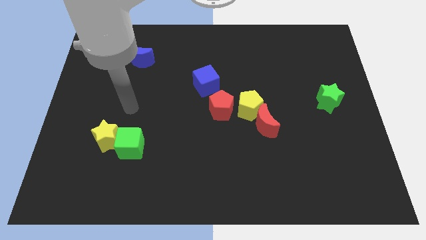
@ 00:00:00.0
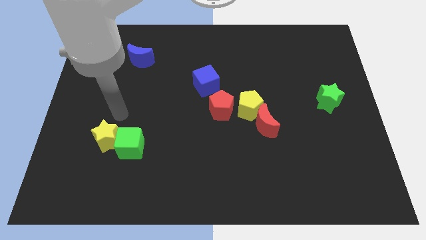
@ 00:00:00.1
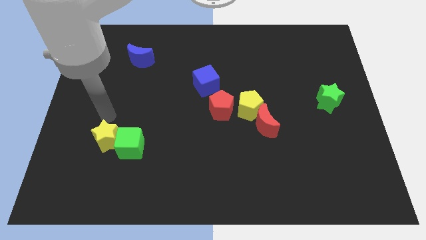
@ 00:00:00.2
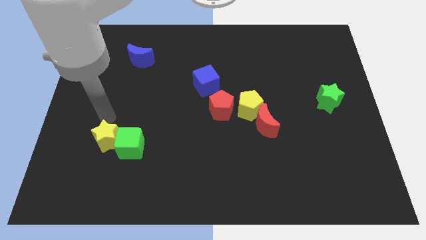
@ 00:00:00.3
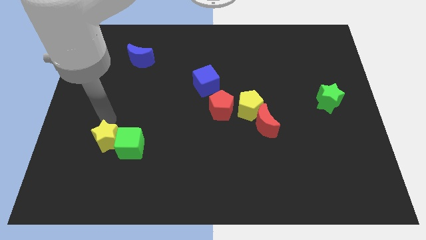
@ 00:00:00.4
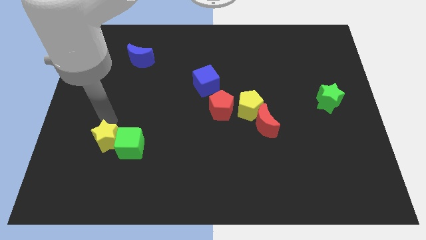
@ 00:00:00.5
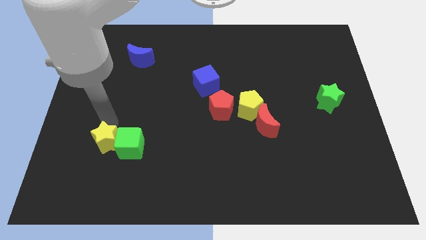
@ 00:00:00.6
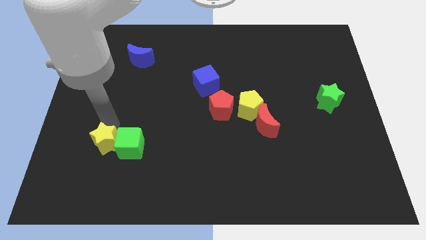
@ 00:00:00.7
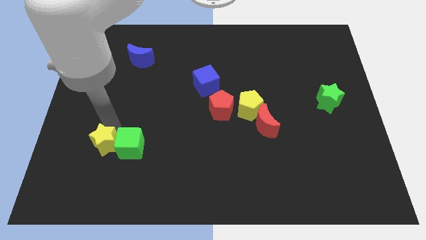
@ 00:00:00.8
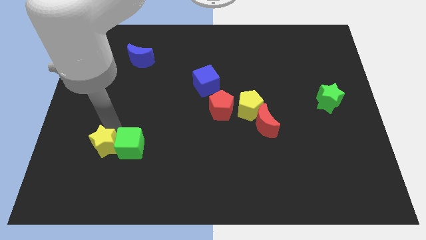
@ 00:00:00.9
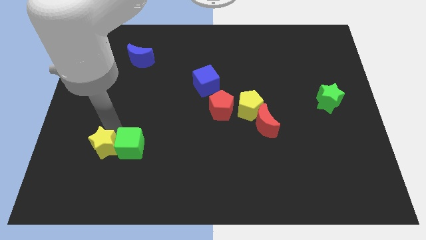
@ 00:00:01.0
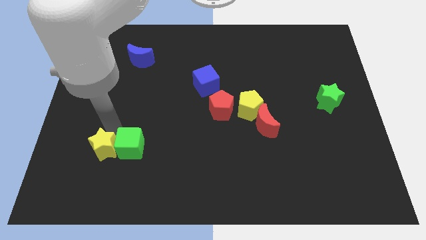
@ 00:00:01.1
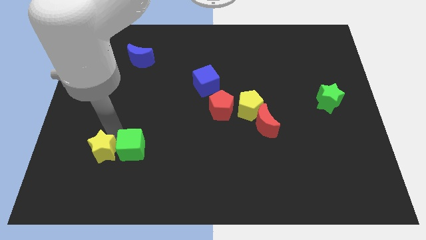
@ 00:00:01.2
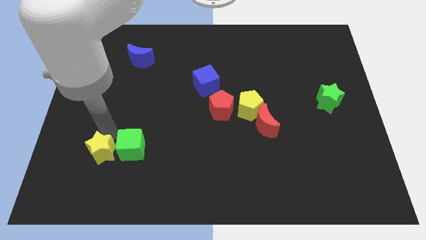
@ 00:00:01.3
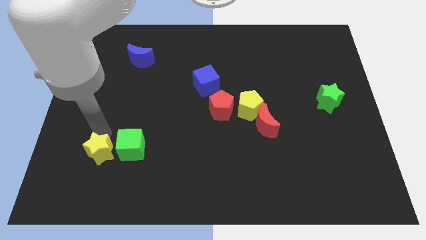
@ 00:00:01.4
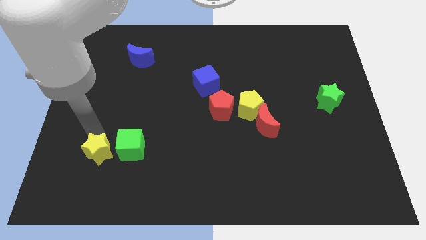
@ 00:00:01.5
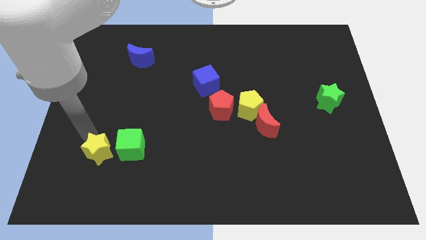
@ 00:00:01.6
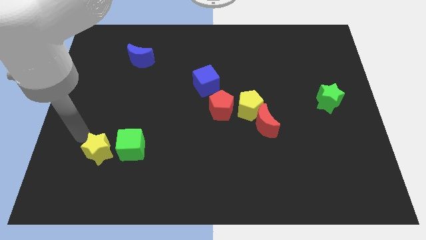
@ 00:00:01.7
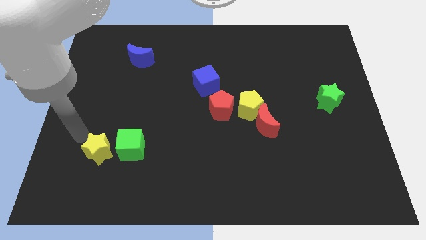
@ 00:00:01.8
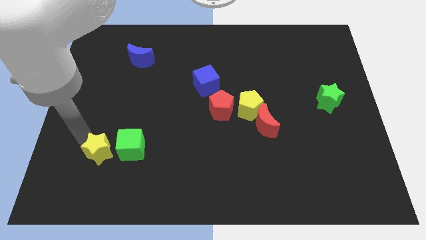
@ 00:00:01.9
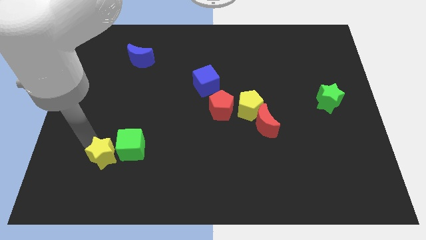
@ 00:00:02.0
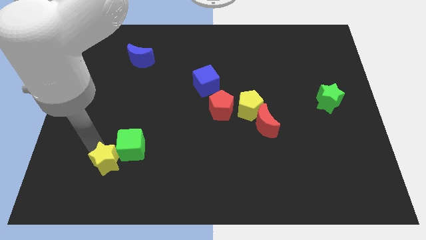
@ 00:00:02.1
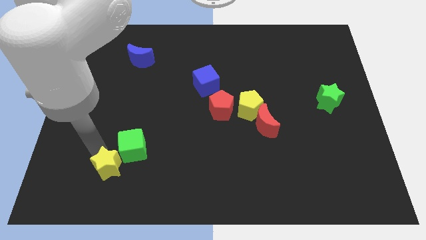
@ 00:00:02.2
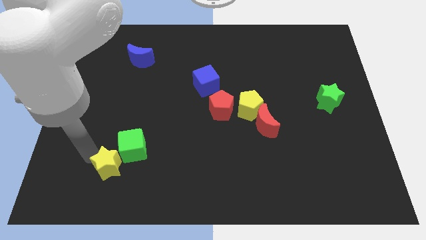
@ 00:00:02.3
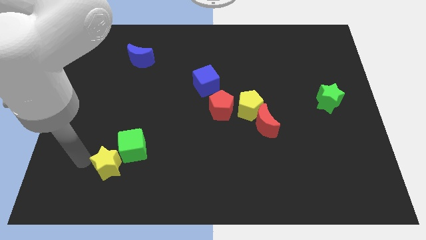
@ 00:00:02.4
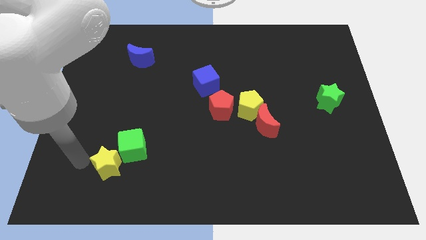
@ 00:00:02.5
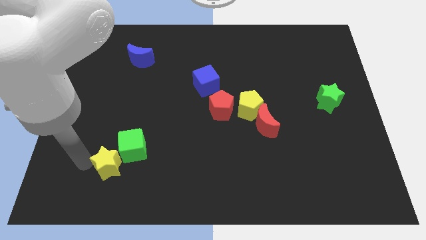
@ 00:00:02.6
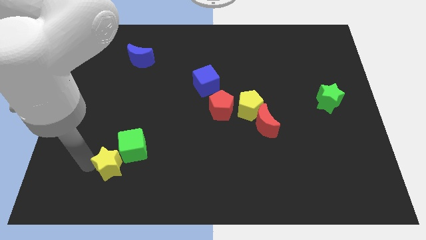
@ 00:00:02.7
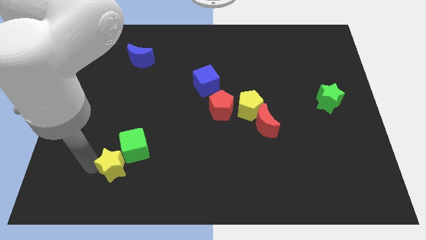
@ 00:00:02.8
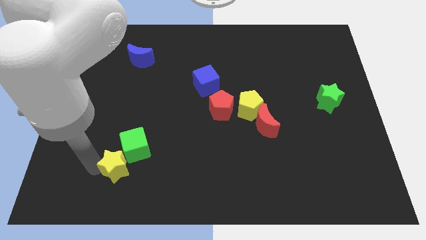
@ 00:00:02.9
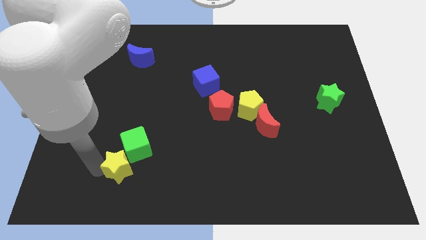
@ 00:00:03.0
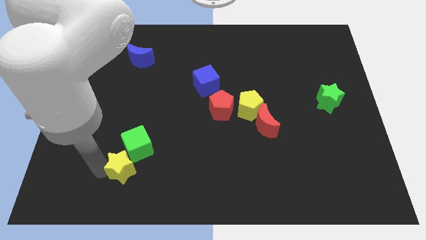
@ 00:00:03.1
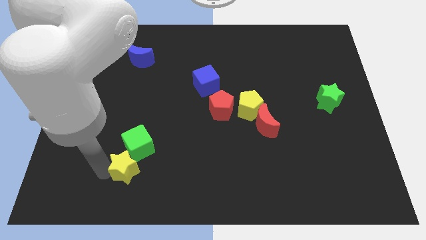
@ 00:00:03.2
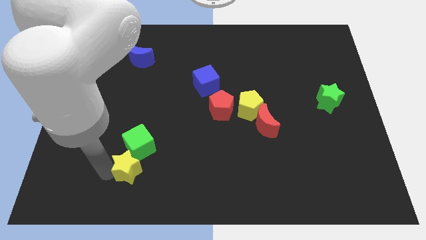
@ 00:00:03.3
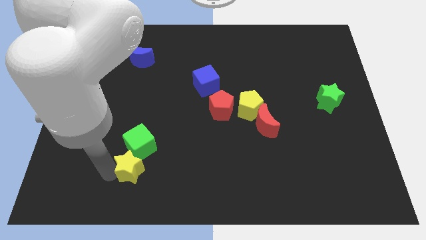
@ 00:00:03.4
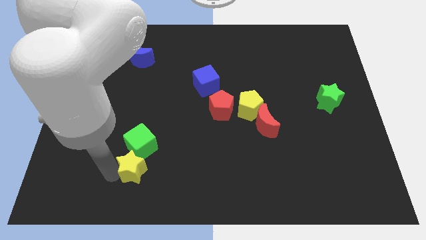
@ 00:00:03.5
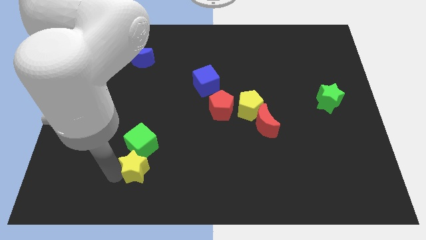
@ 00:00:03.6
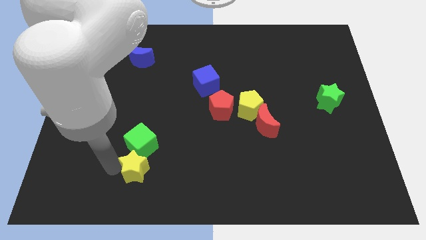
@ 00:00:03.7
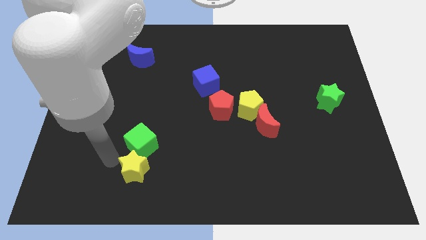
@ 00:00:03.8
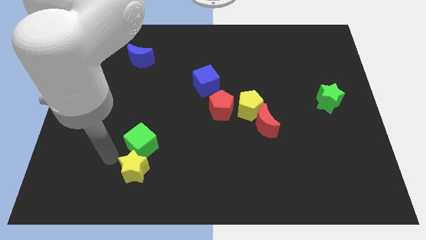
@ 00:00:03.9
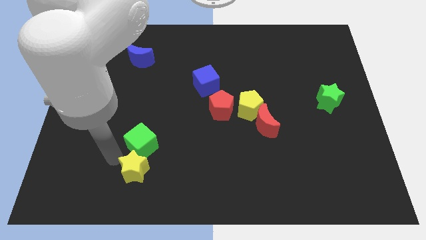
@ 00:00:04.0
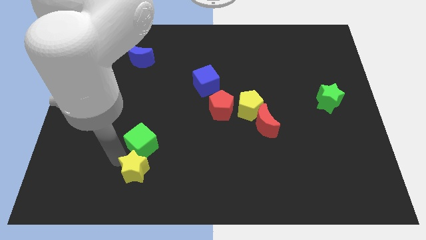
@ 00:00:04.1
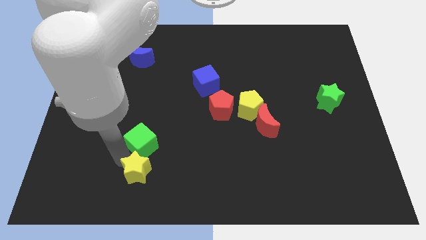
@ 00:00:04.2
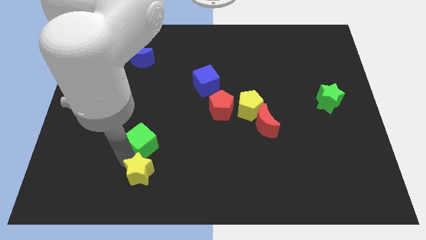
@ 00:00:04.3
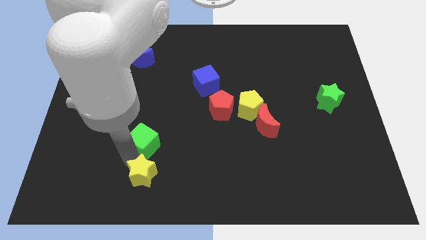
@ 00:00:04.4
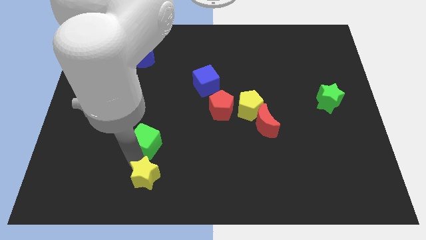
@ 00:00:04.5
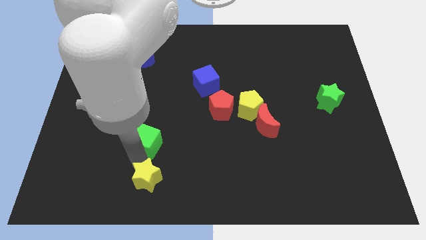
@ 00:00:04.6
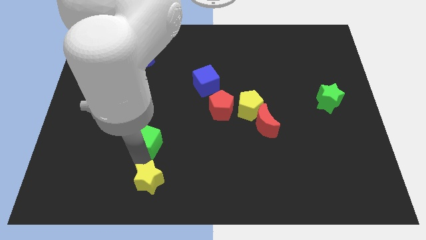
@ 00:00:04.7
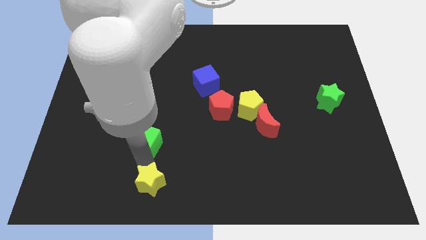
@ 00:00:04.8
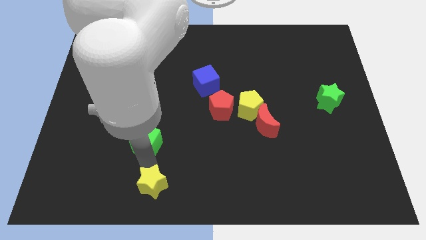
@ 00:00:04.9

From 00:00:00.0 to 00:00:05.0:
slide the yellow star to the bottom

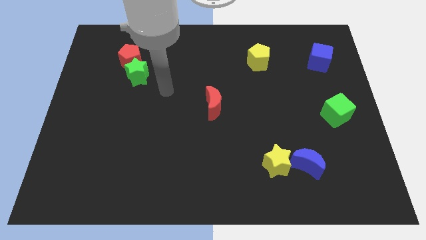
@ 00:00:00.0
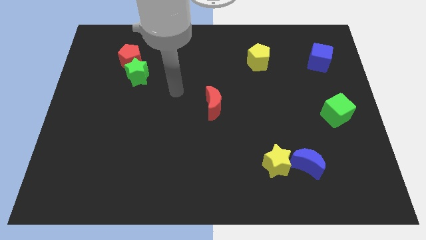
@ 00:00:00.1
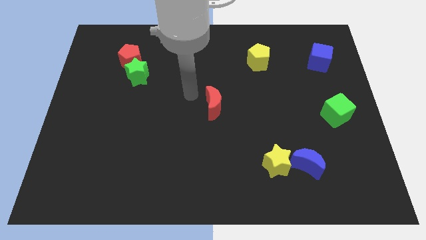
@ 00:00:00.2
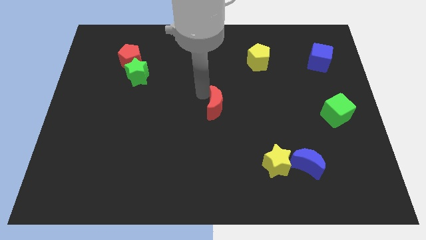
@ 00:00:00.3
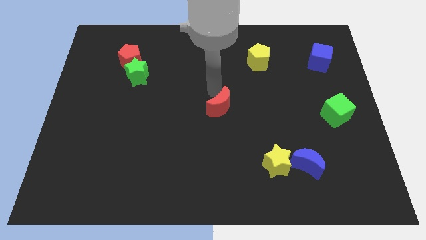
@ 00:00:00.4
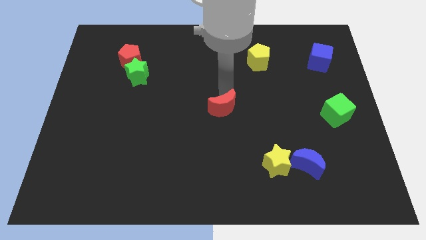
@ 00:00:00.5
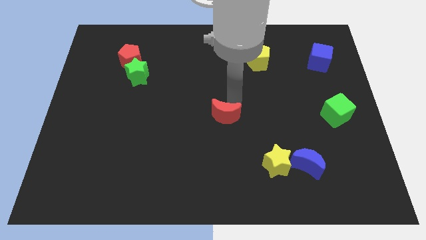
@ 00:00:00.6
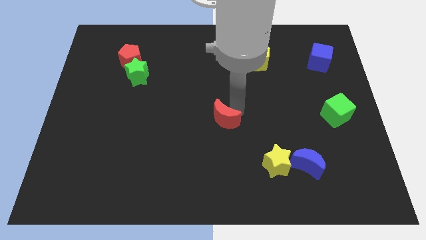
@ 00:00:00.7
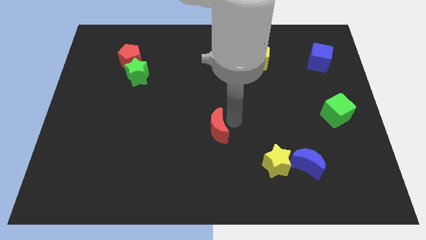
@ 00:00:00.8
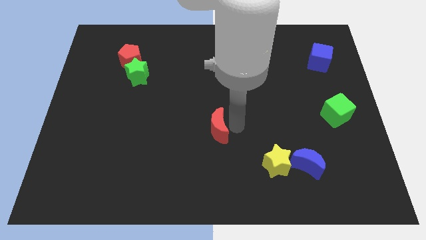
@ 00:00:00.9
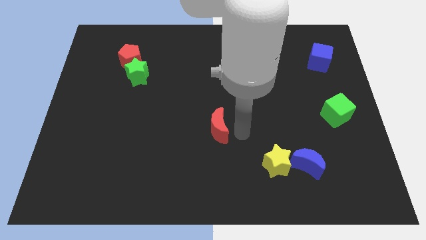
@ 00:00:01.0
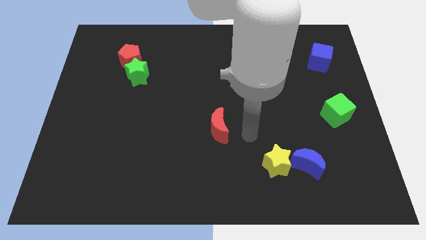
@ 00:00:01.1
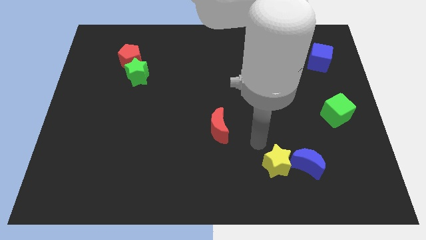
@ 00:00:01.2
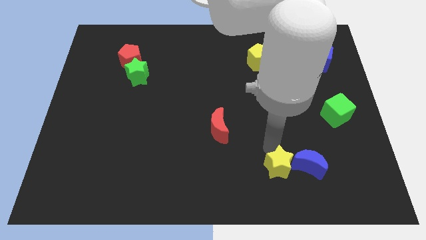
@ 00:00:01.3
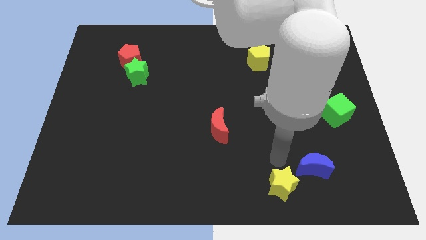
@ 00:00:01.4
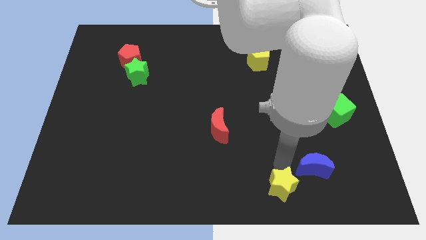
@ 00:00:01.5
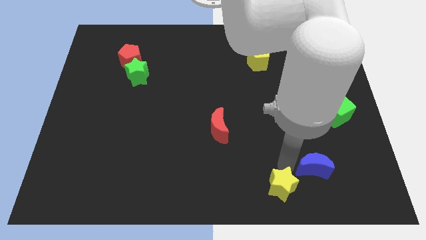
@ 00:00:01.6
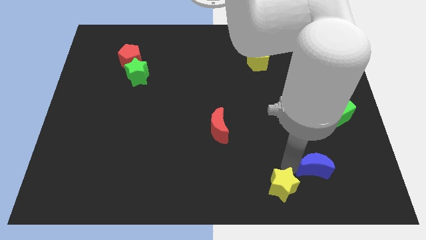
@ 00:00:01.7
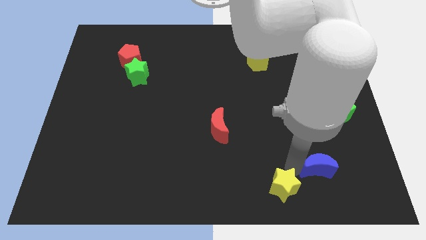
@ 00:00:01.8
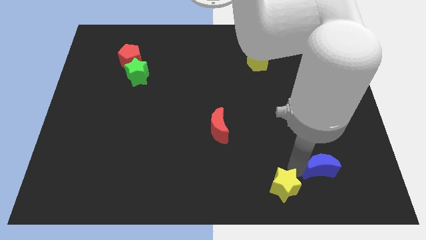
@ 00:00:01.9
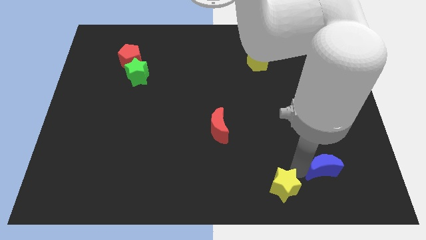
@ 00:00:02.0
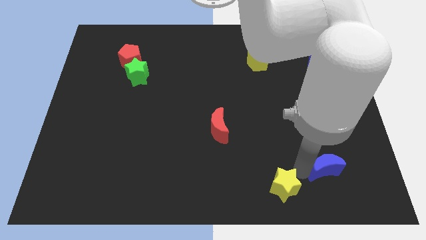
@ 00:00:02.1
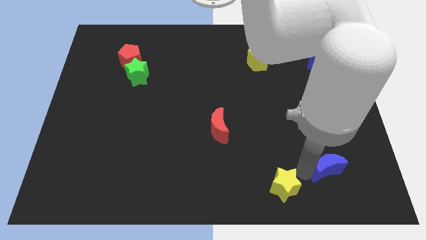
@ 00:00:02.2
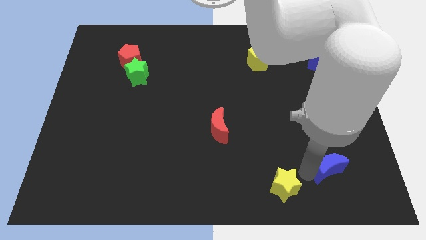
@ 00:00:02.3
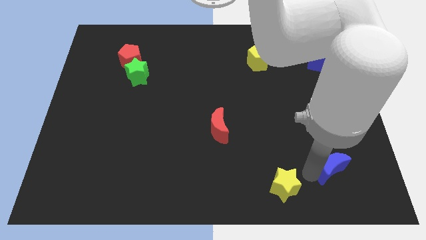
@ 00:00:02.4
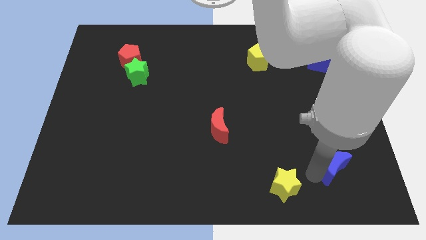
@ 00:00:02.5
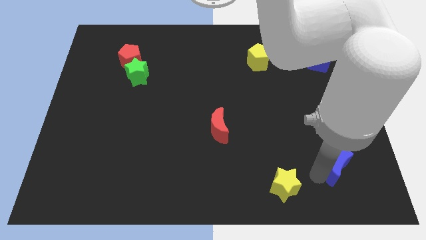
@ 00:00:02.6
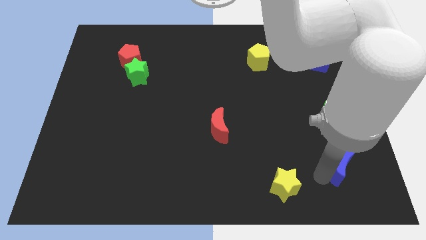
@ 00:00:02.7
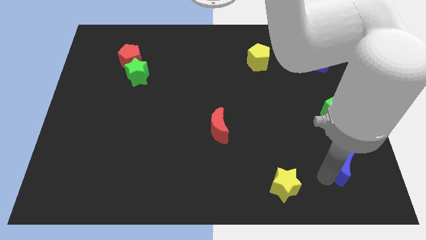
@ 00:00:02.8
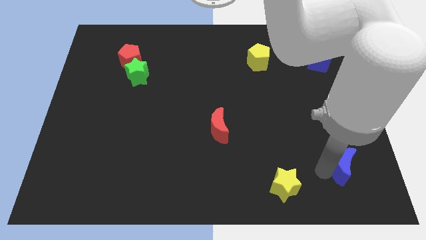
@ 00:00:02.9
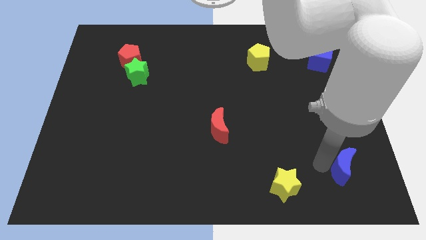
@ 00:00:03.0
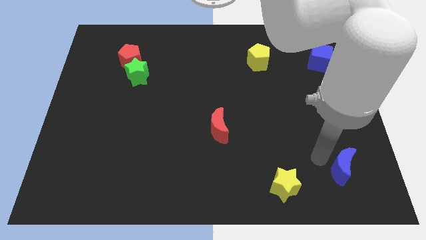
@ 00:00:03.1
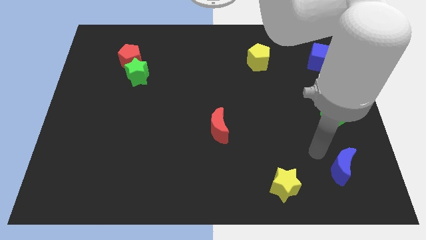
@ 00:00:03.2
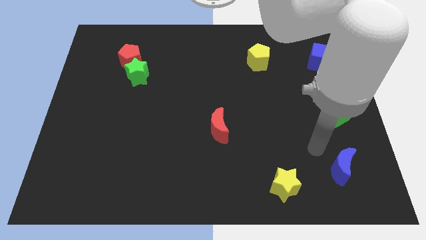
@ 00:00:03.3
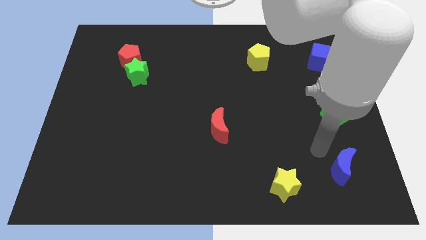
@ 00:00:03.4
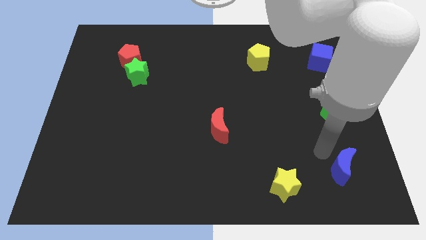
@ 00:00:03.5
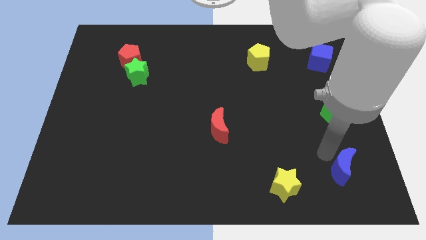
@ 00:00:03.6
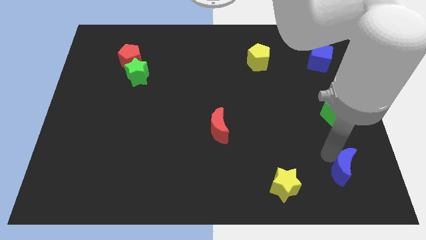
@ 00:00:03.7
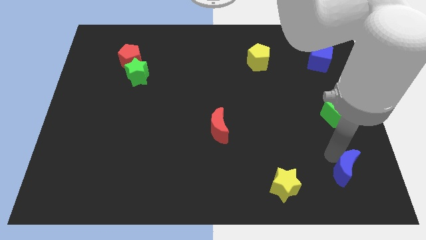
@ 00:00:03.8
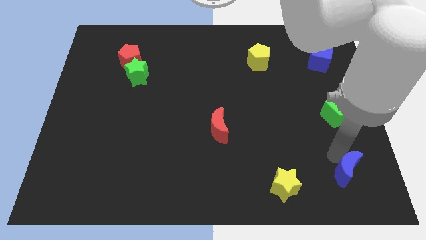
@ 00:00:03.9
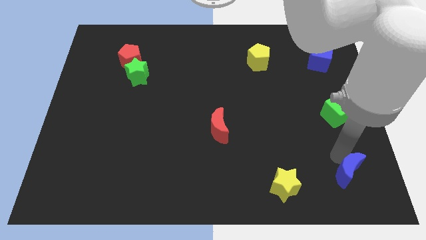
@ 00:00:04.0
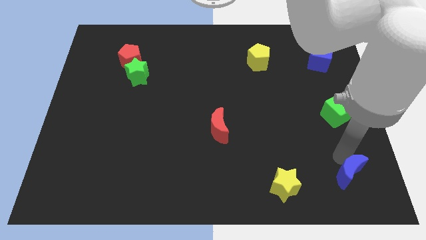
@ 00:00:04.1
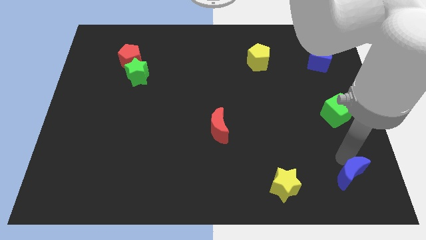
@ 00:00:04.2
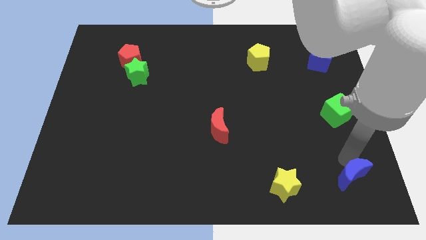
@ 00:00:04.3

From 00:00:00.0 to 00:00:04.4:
move the blue moon to the lower right corner
